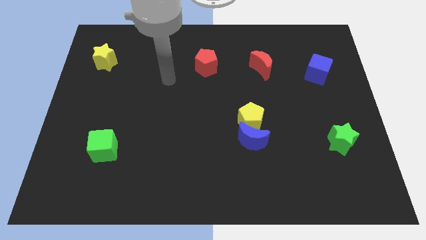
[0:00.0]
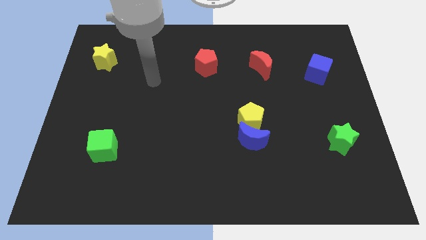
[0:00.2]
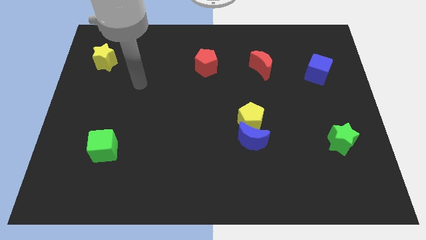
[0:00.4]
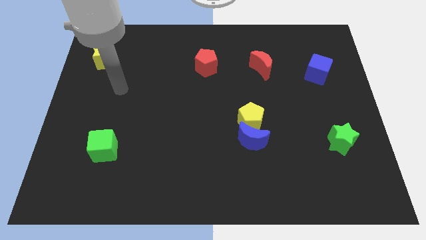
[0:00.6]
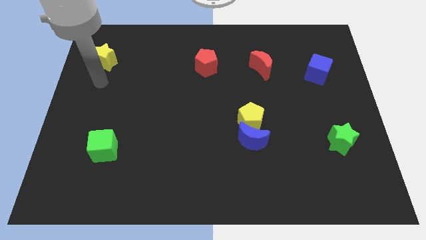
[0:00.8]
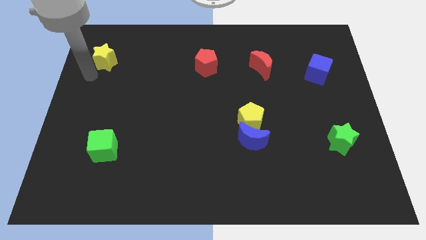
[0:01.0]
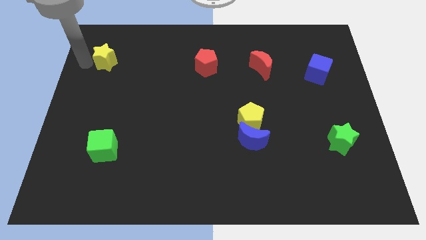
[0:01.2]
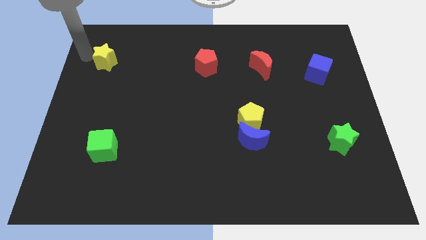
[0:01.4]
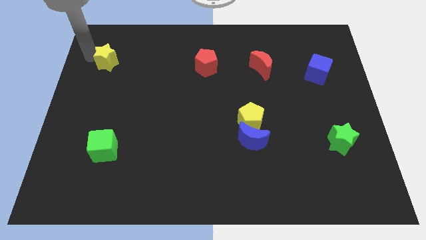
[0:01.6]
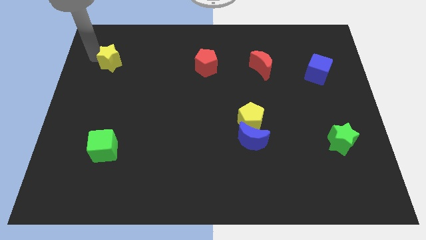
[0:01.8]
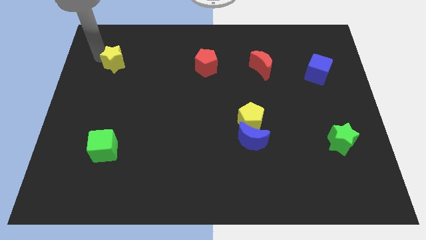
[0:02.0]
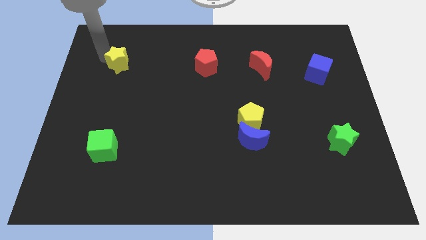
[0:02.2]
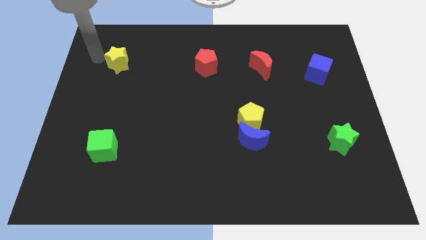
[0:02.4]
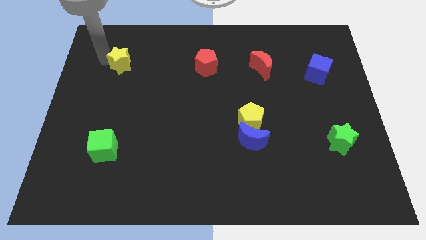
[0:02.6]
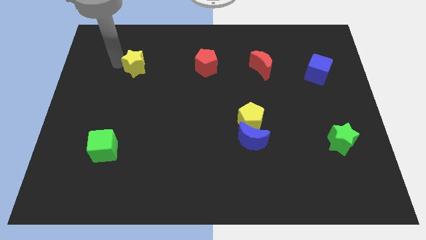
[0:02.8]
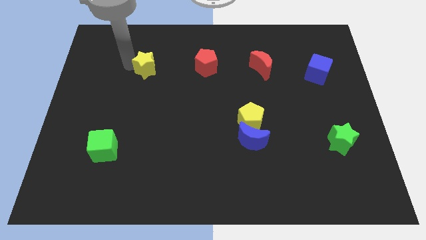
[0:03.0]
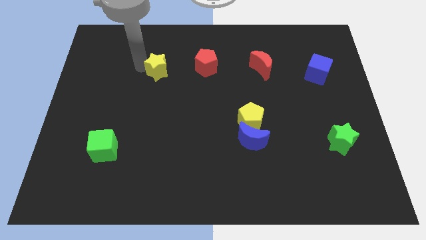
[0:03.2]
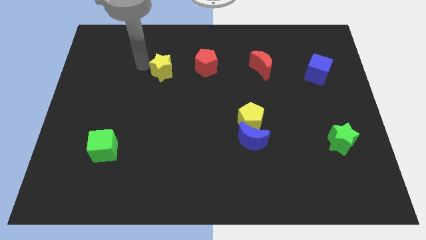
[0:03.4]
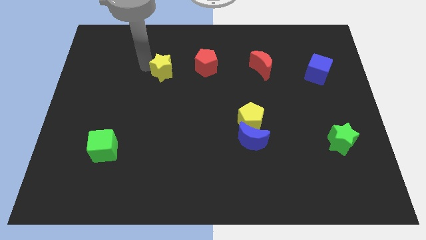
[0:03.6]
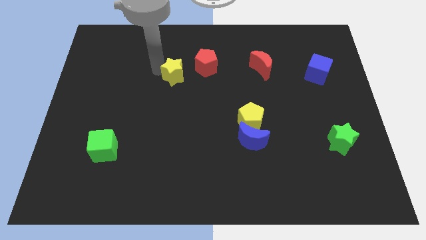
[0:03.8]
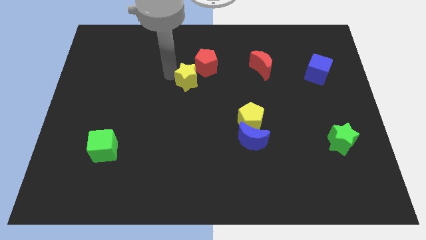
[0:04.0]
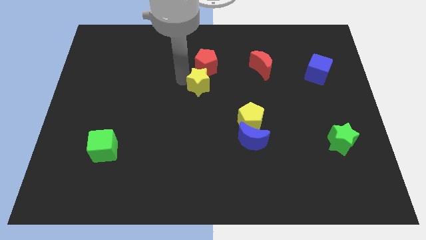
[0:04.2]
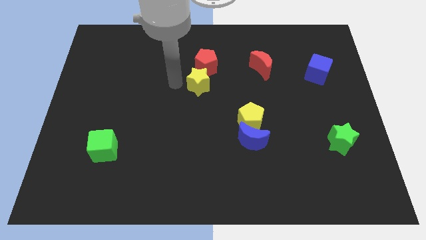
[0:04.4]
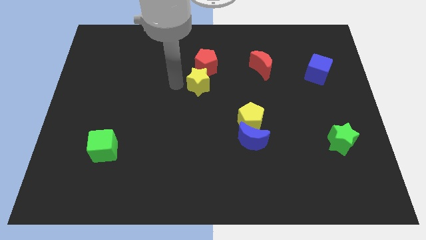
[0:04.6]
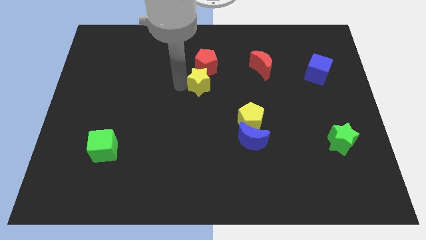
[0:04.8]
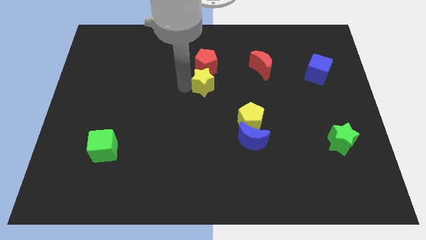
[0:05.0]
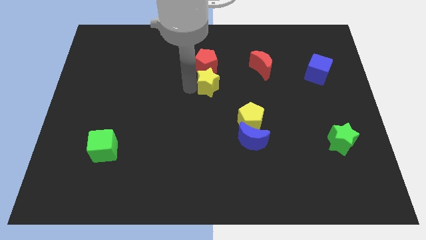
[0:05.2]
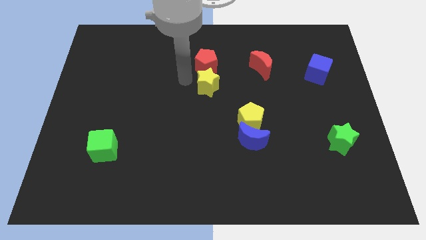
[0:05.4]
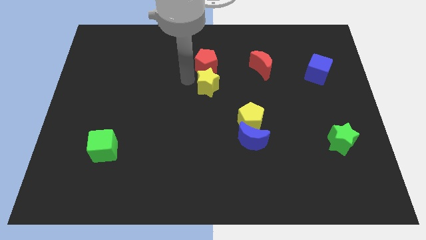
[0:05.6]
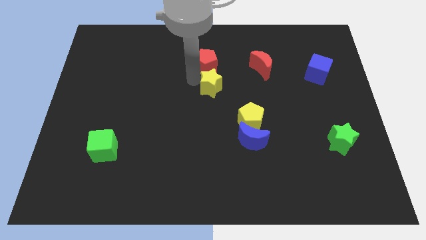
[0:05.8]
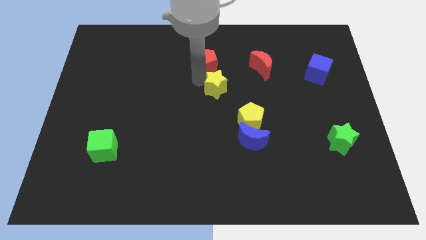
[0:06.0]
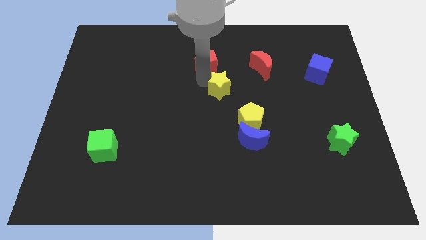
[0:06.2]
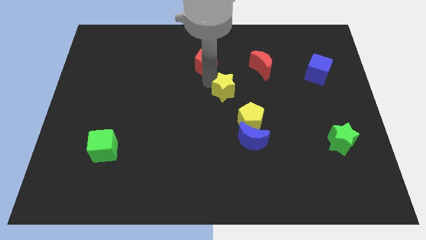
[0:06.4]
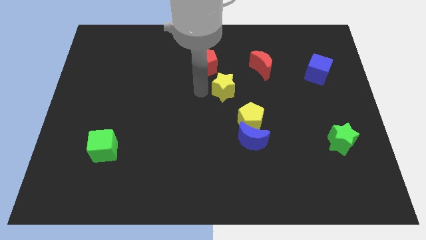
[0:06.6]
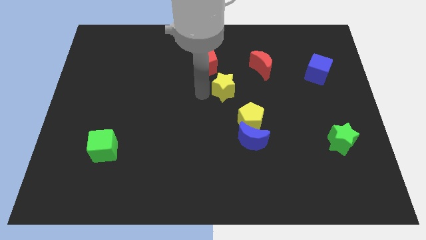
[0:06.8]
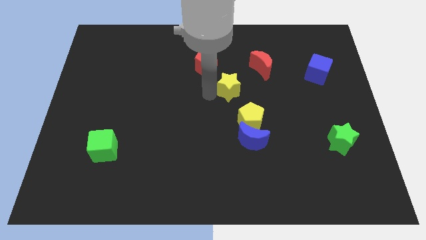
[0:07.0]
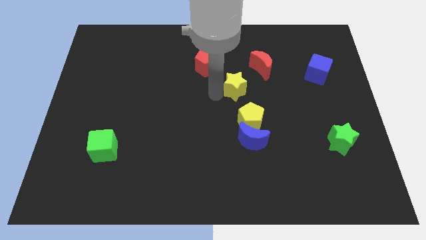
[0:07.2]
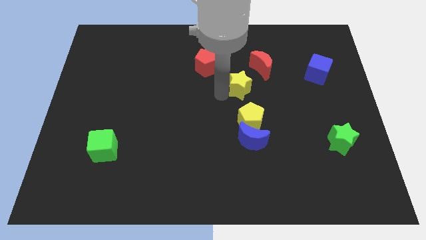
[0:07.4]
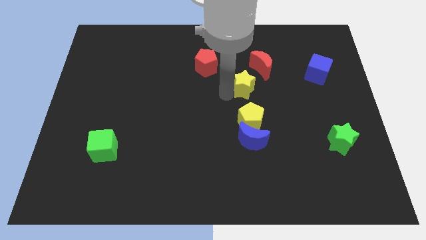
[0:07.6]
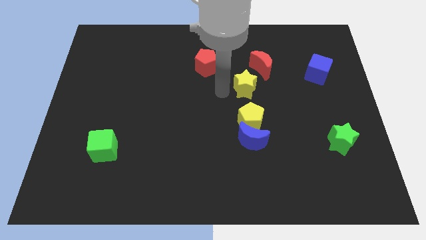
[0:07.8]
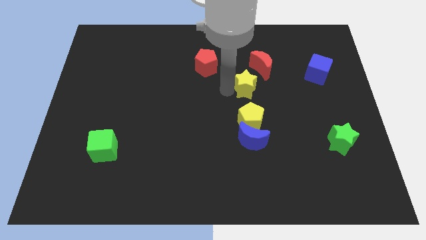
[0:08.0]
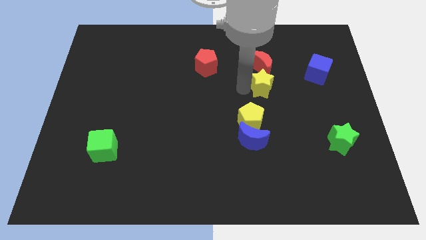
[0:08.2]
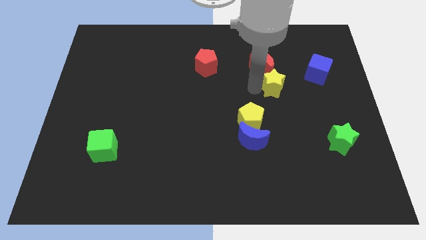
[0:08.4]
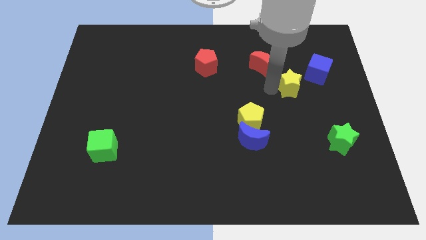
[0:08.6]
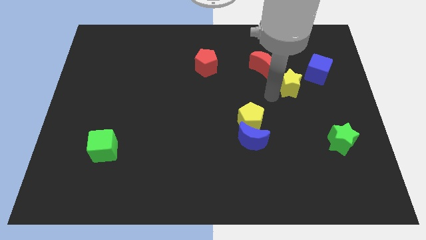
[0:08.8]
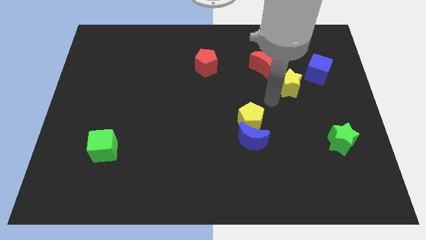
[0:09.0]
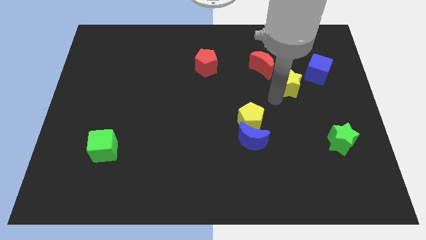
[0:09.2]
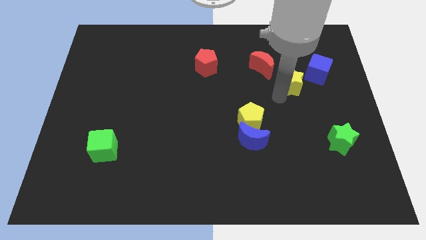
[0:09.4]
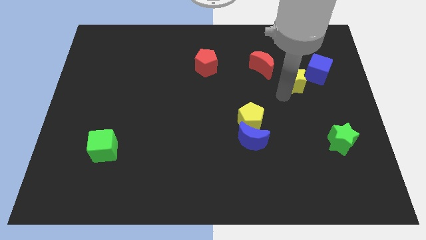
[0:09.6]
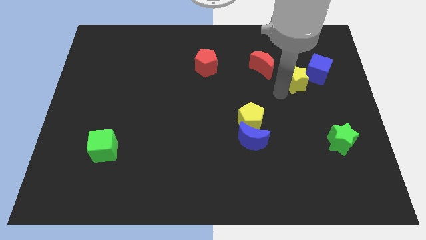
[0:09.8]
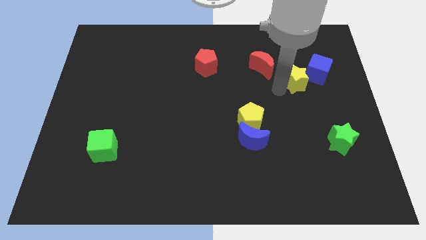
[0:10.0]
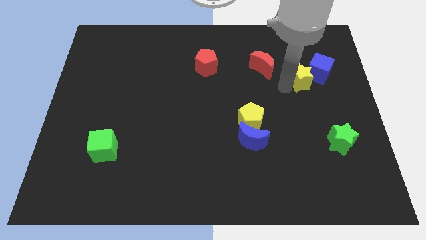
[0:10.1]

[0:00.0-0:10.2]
put the yellow star close to the blue cube

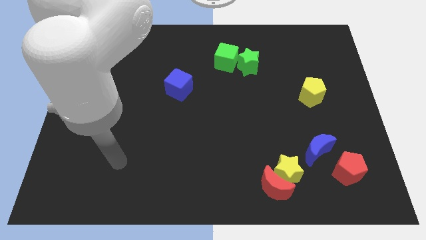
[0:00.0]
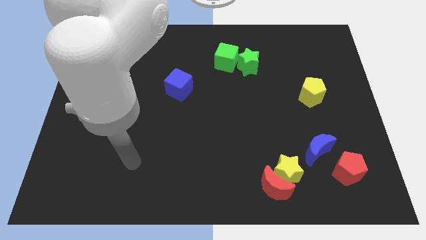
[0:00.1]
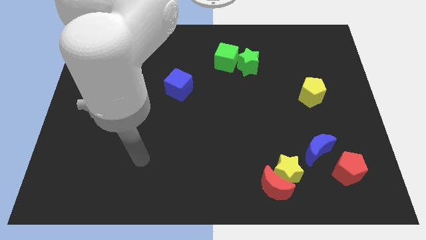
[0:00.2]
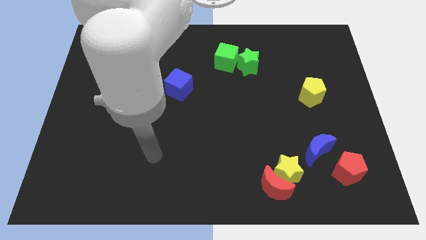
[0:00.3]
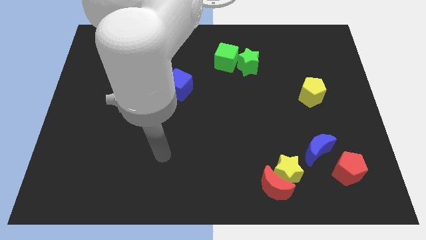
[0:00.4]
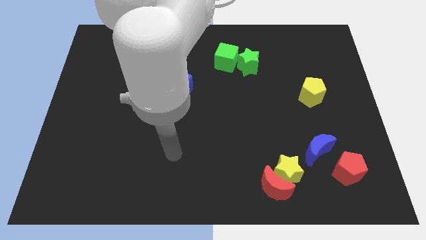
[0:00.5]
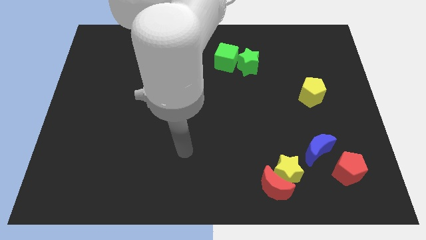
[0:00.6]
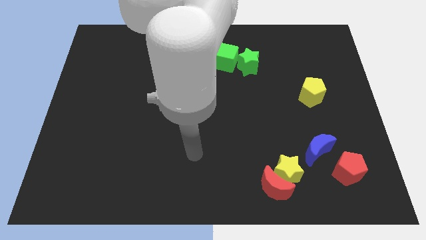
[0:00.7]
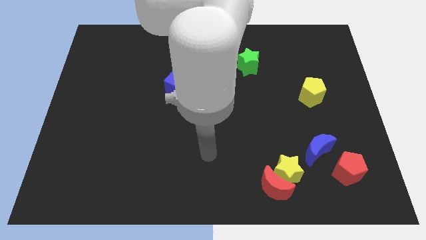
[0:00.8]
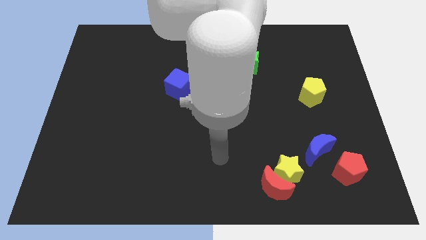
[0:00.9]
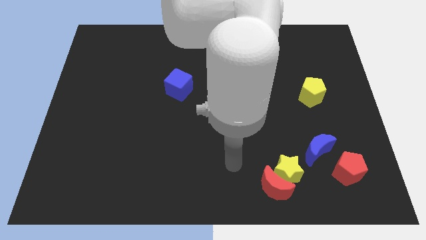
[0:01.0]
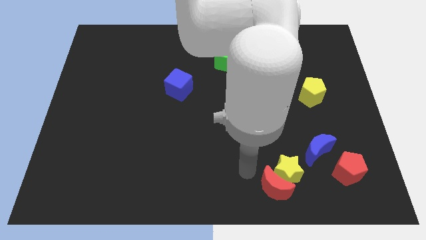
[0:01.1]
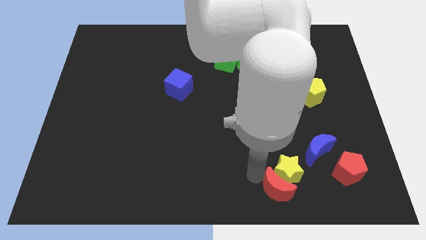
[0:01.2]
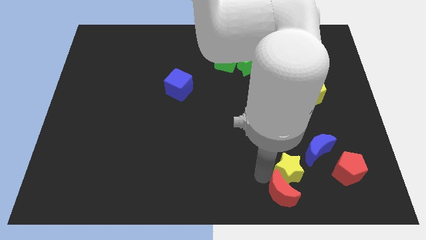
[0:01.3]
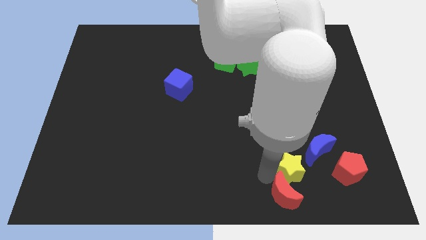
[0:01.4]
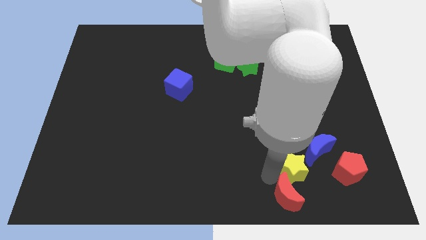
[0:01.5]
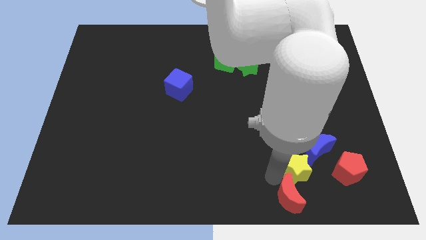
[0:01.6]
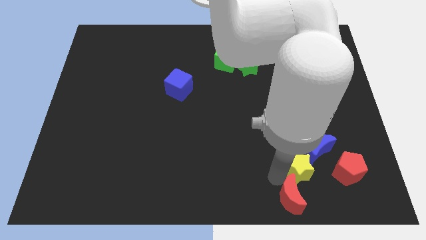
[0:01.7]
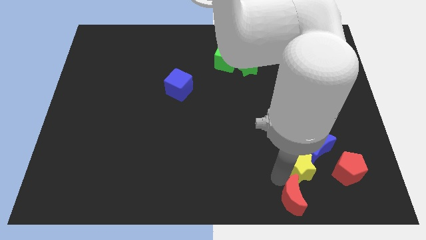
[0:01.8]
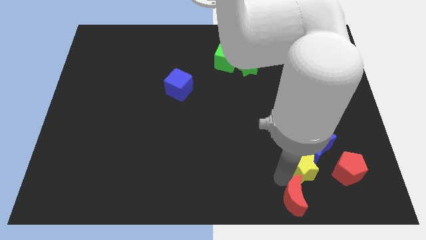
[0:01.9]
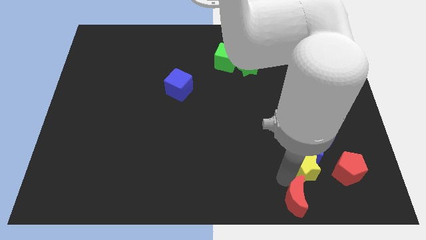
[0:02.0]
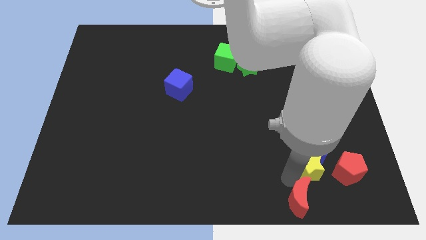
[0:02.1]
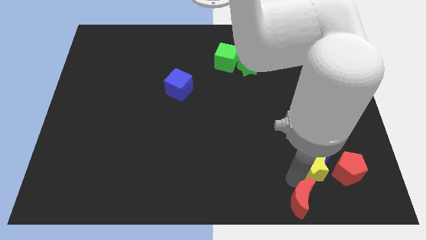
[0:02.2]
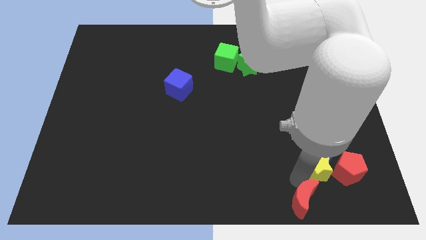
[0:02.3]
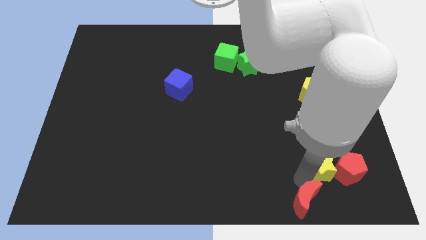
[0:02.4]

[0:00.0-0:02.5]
move the yellow star towards the red pentagon

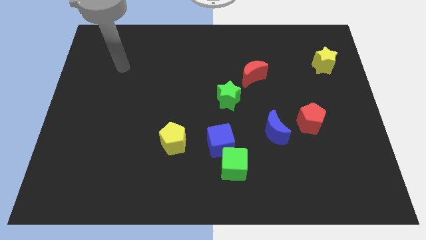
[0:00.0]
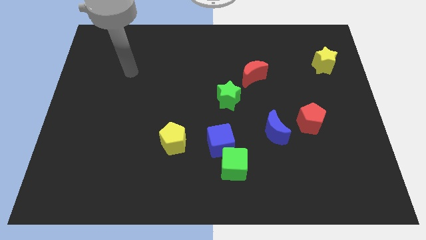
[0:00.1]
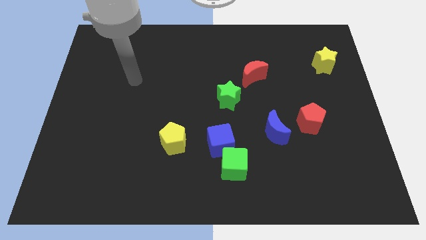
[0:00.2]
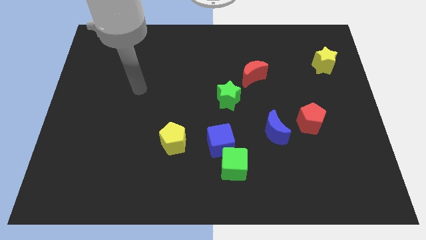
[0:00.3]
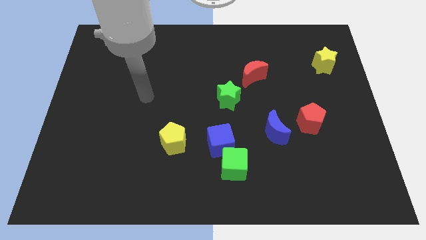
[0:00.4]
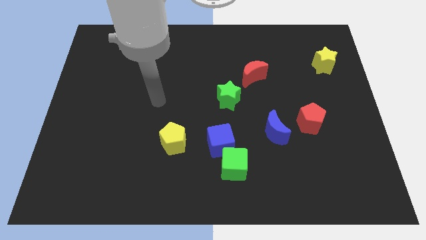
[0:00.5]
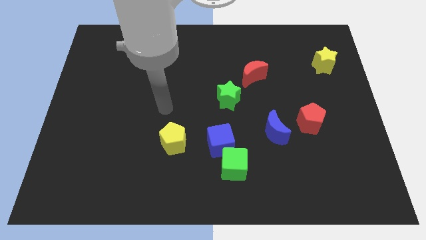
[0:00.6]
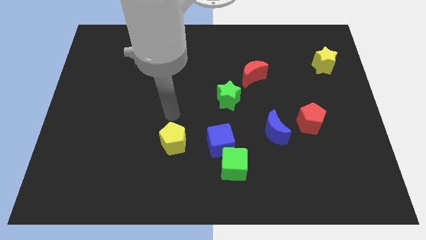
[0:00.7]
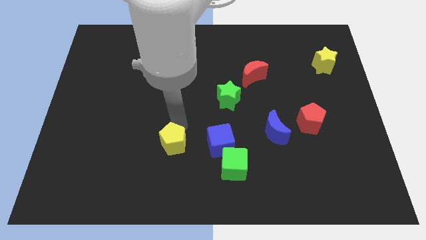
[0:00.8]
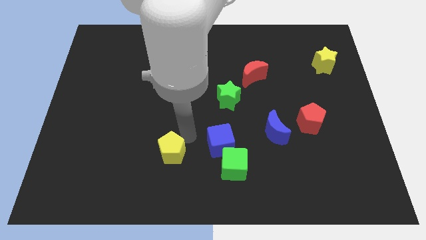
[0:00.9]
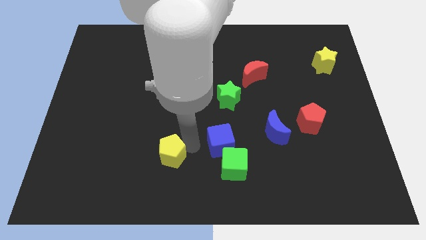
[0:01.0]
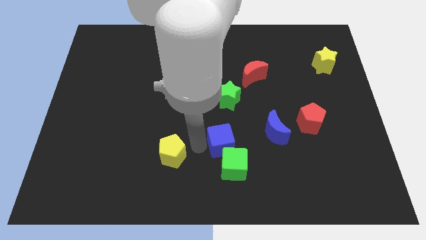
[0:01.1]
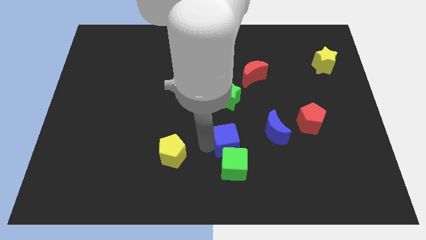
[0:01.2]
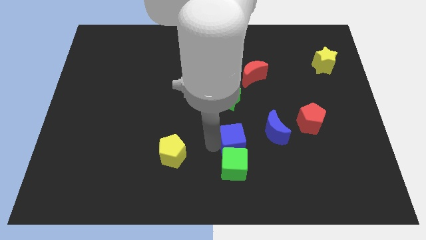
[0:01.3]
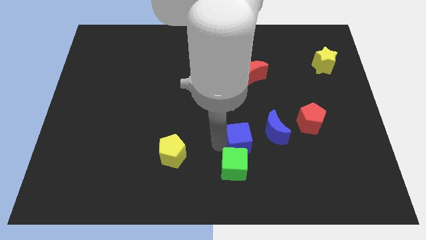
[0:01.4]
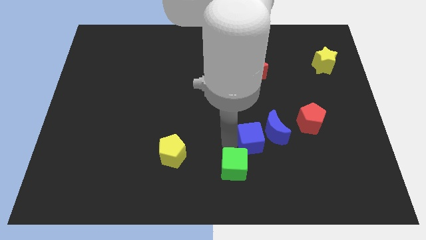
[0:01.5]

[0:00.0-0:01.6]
put the blue cube close to the blue moon
